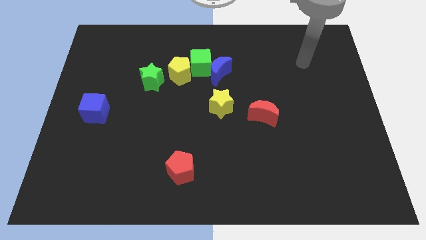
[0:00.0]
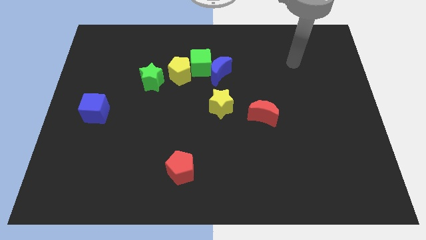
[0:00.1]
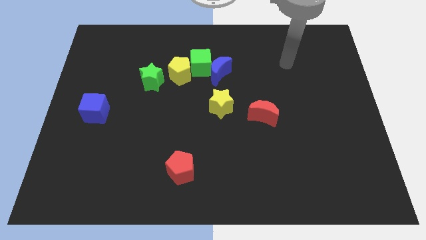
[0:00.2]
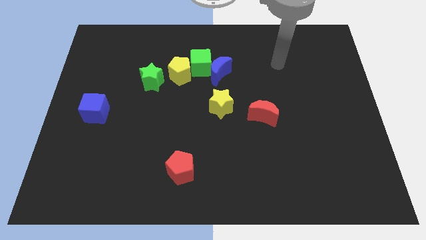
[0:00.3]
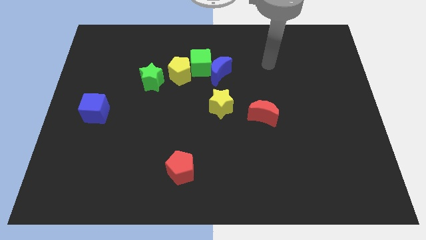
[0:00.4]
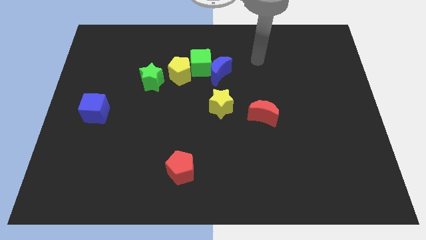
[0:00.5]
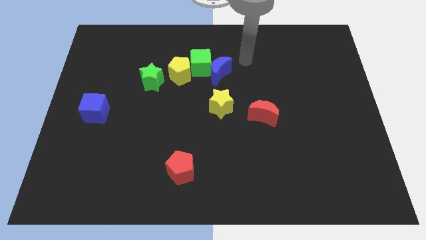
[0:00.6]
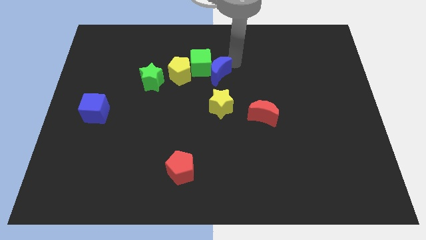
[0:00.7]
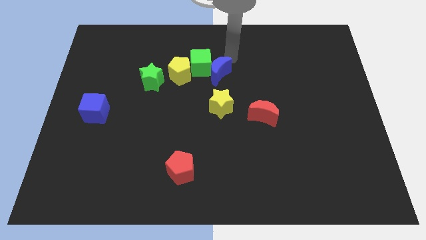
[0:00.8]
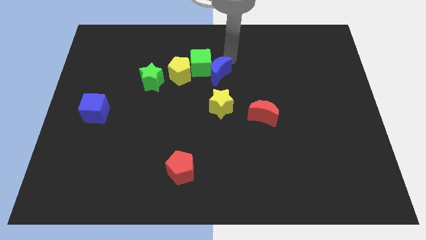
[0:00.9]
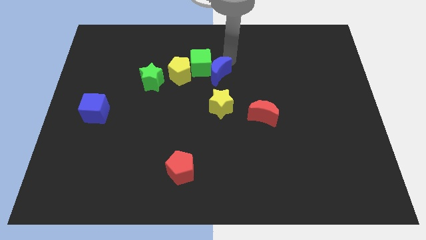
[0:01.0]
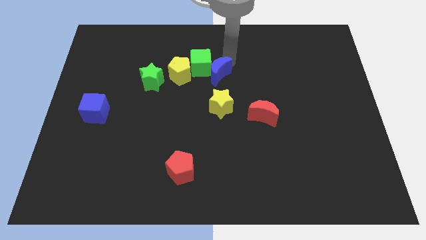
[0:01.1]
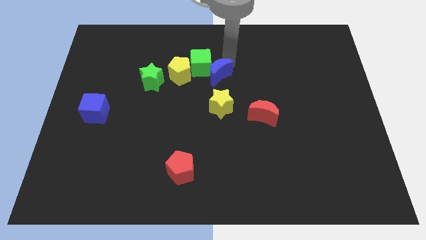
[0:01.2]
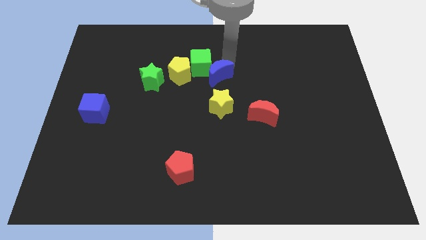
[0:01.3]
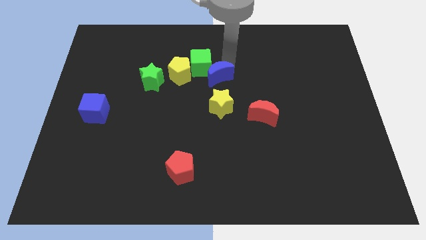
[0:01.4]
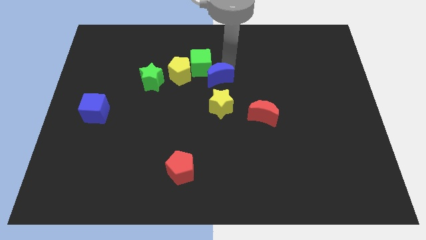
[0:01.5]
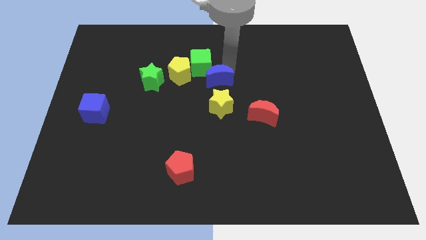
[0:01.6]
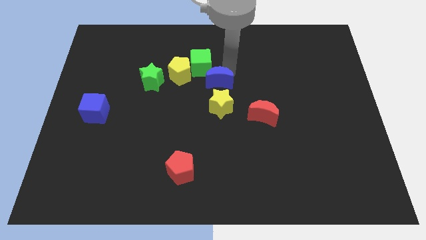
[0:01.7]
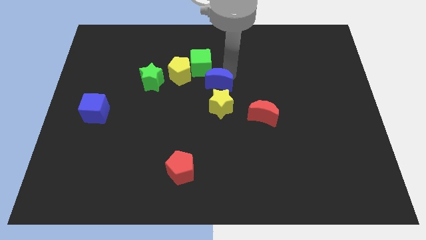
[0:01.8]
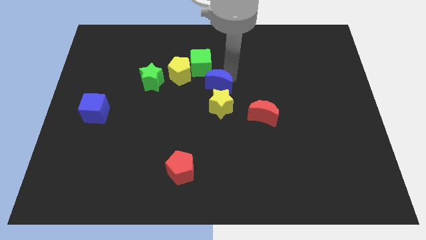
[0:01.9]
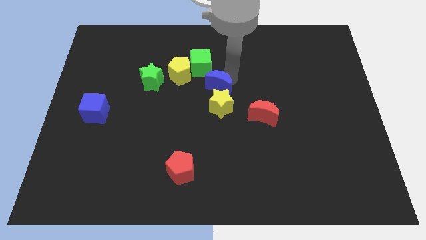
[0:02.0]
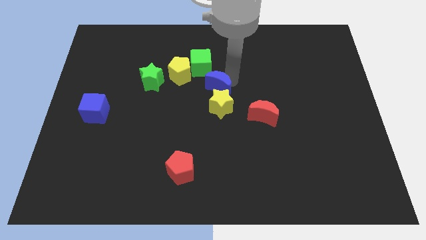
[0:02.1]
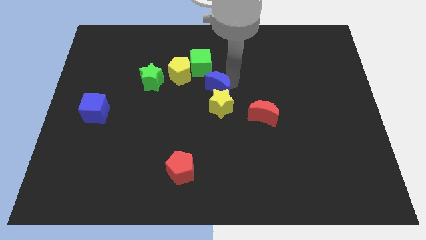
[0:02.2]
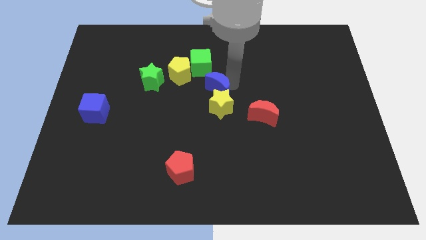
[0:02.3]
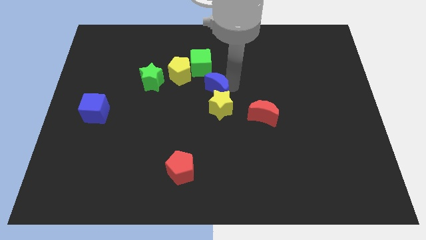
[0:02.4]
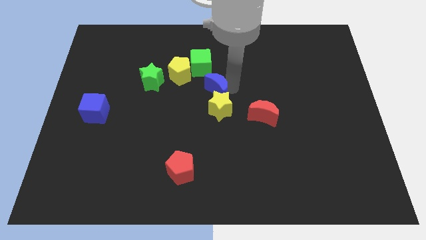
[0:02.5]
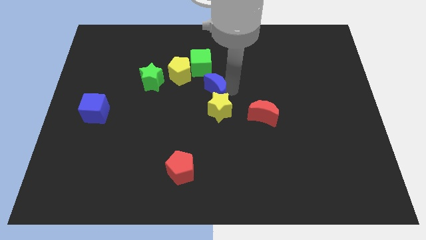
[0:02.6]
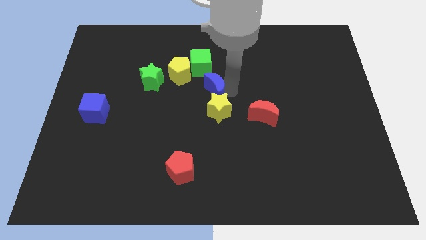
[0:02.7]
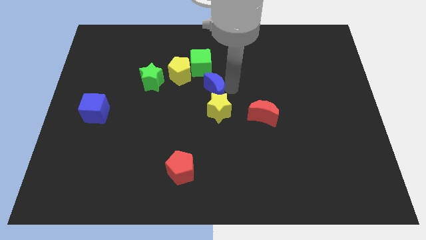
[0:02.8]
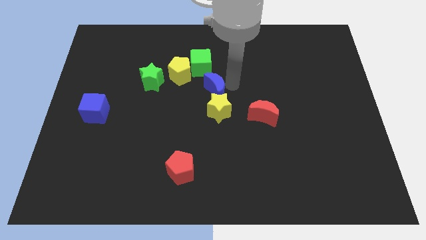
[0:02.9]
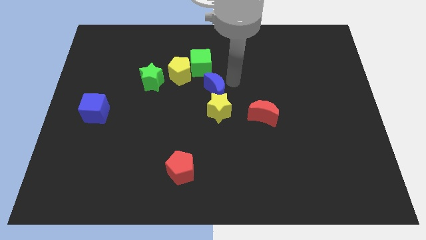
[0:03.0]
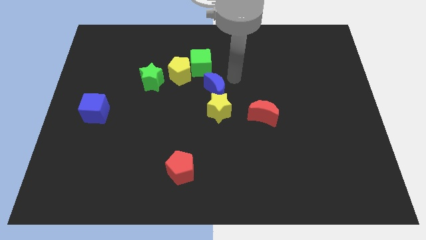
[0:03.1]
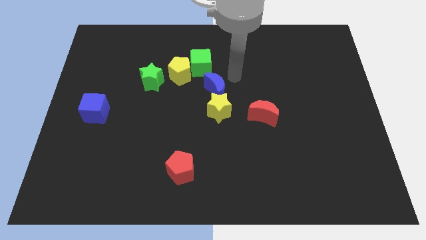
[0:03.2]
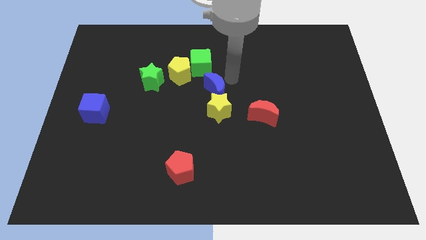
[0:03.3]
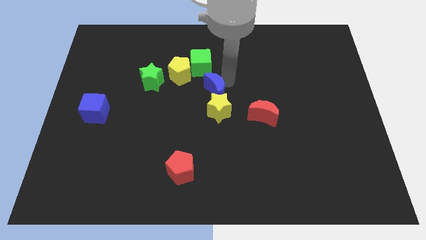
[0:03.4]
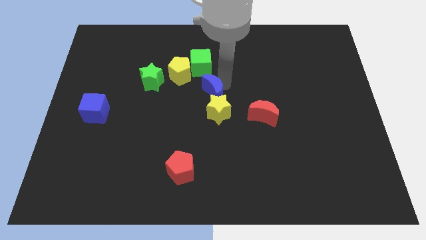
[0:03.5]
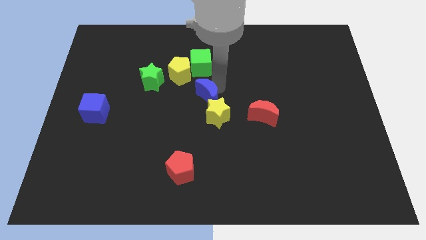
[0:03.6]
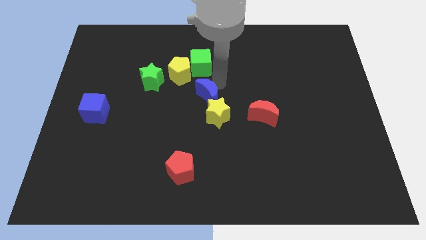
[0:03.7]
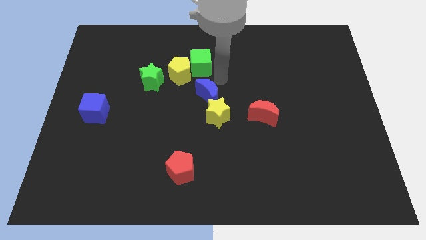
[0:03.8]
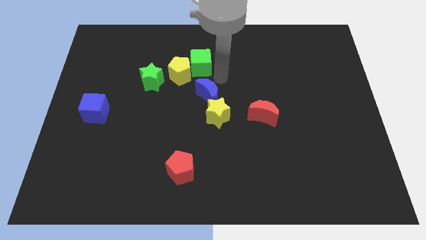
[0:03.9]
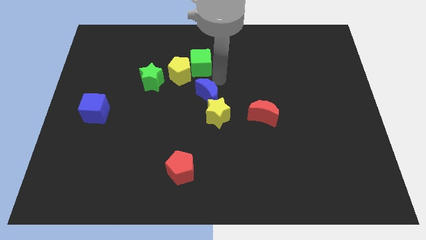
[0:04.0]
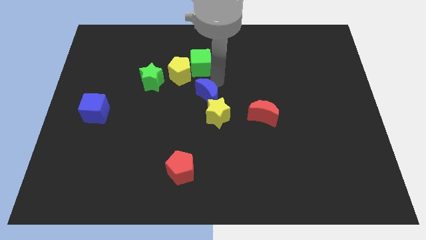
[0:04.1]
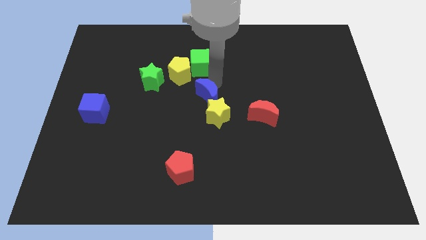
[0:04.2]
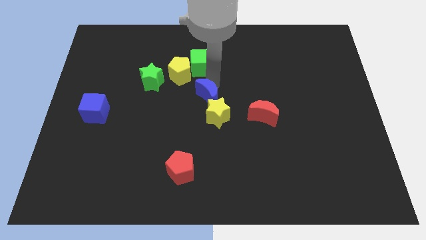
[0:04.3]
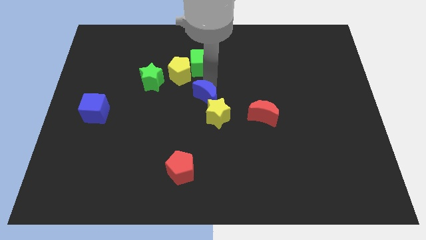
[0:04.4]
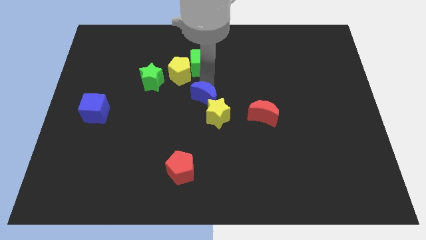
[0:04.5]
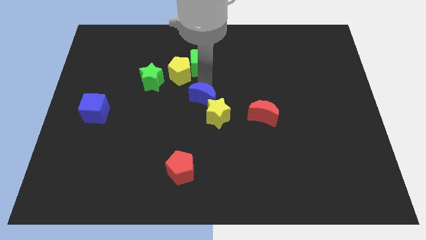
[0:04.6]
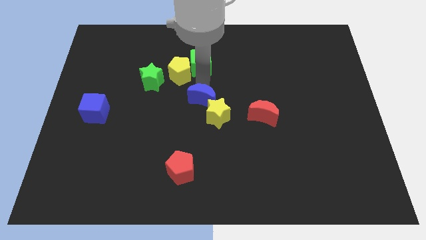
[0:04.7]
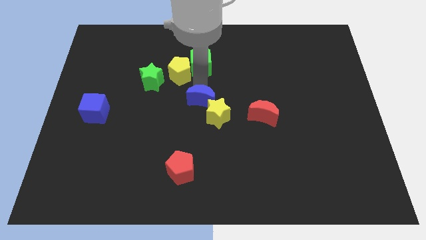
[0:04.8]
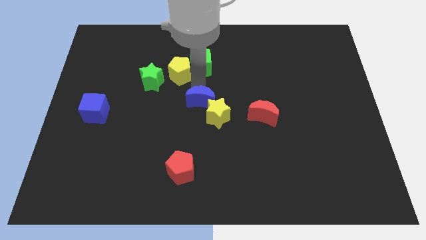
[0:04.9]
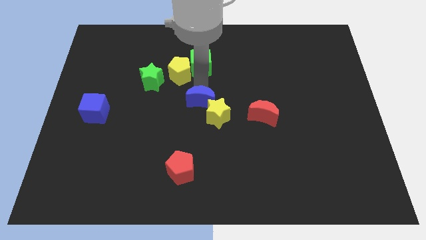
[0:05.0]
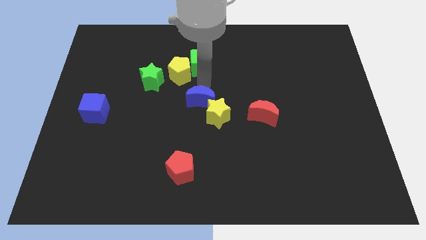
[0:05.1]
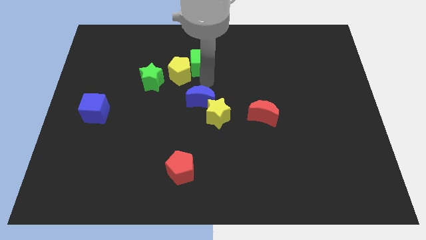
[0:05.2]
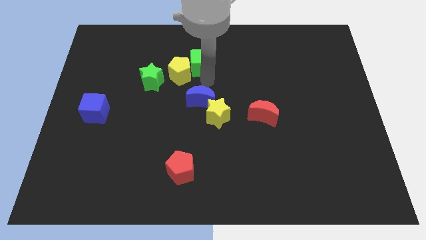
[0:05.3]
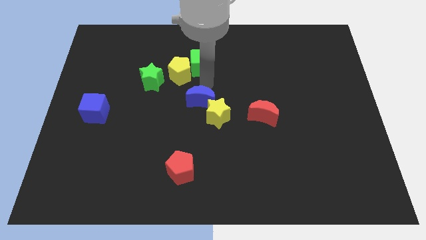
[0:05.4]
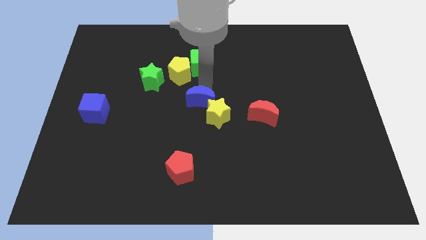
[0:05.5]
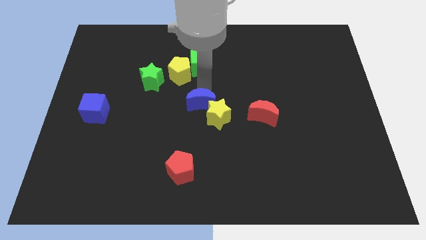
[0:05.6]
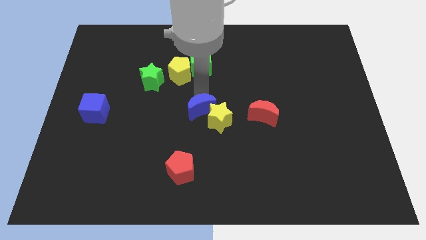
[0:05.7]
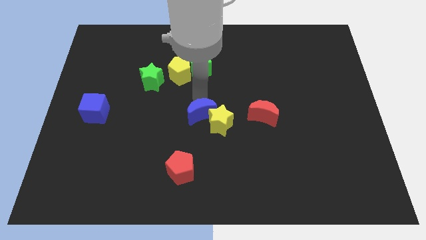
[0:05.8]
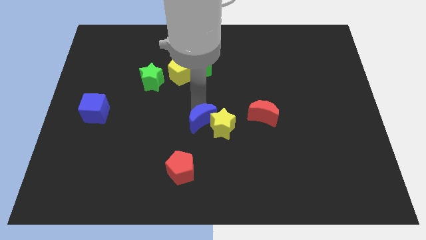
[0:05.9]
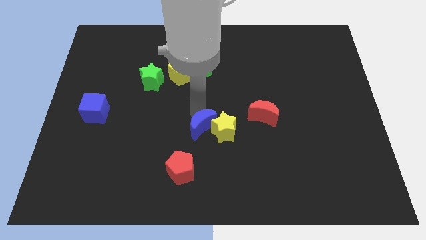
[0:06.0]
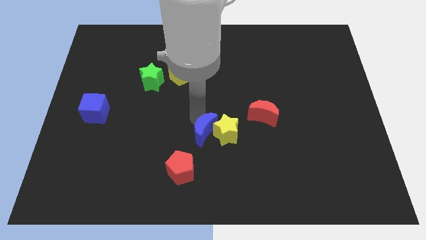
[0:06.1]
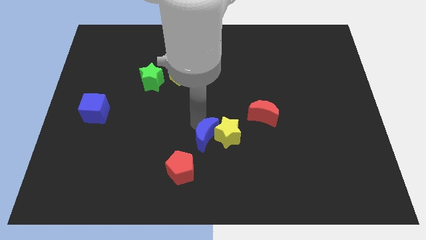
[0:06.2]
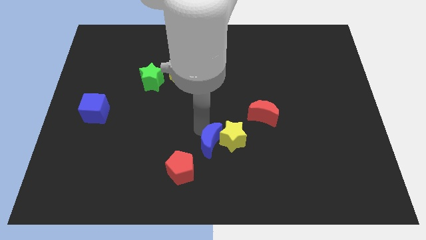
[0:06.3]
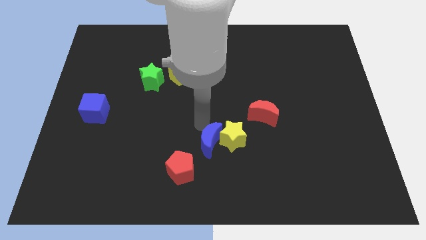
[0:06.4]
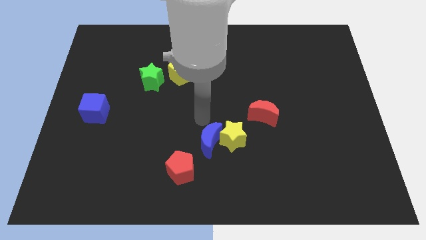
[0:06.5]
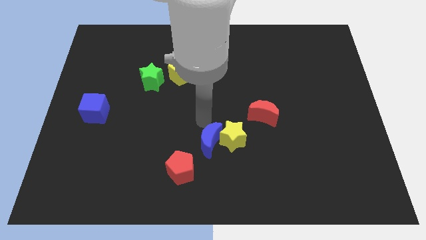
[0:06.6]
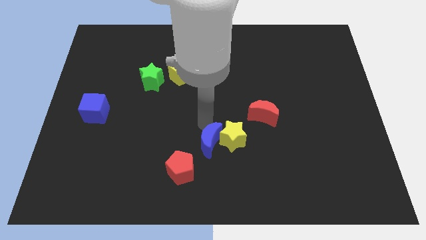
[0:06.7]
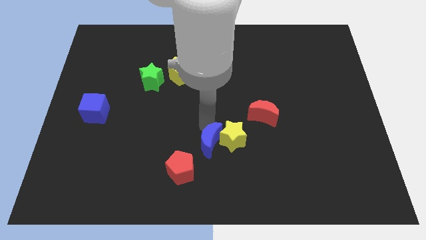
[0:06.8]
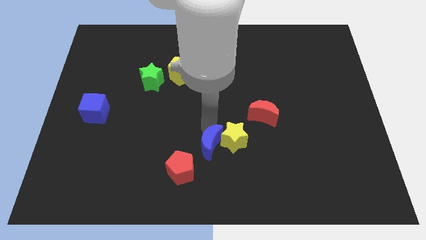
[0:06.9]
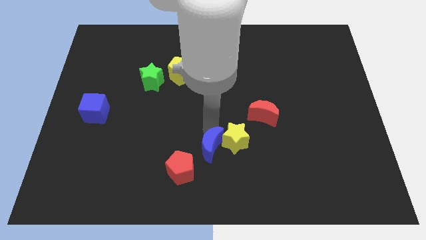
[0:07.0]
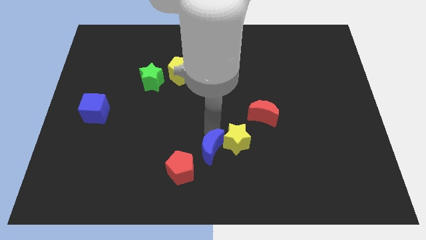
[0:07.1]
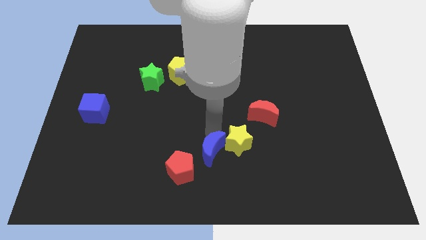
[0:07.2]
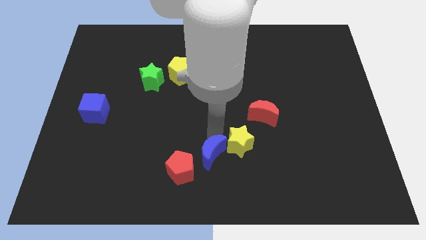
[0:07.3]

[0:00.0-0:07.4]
put the blue moon to the bottom side
